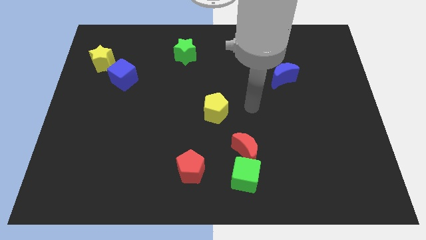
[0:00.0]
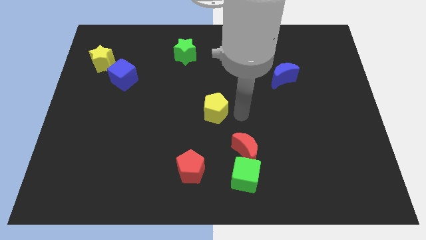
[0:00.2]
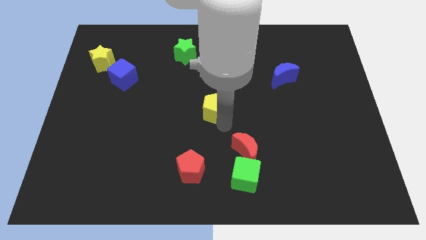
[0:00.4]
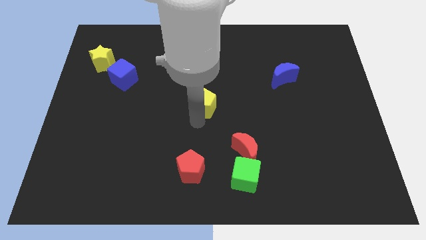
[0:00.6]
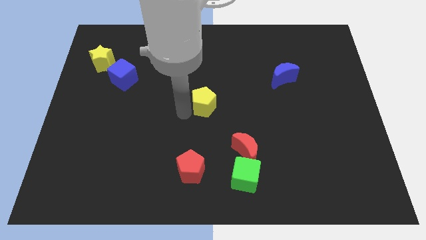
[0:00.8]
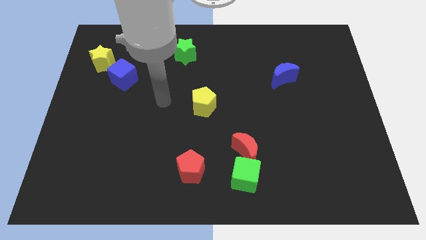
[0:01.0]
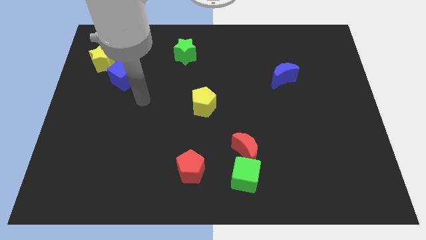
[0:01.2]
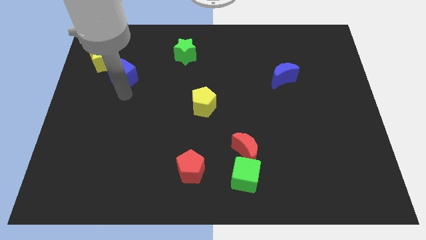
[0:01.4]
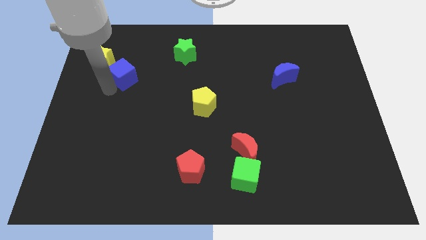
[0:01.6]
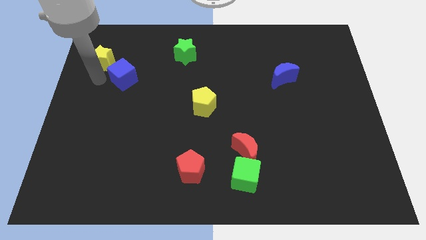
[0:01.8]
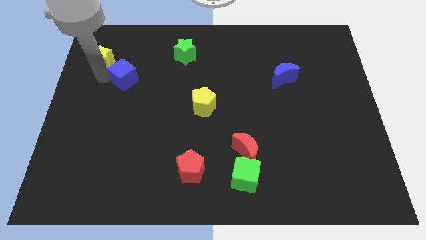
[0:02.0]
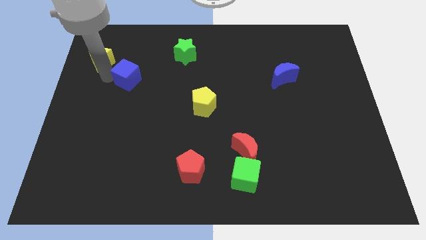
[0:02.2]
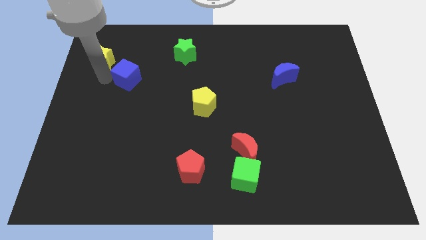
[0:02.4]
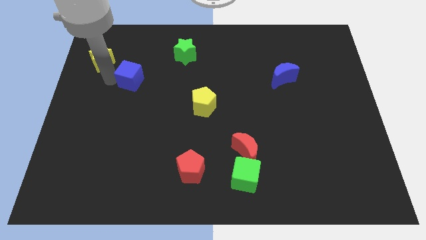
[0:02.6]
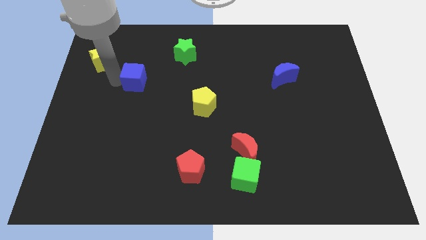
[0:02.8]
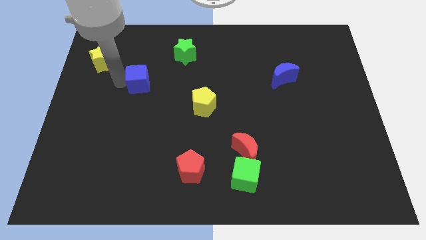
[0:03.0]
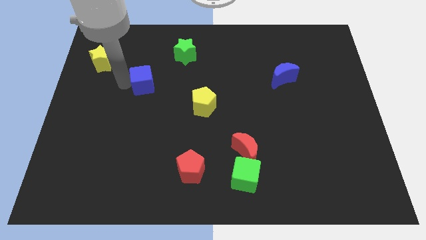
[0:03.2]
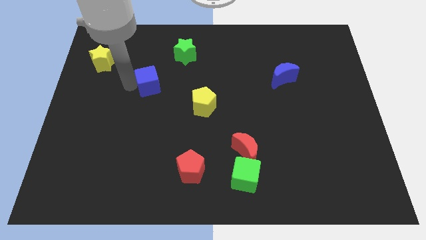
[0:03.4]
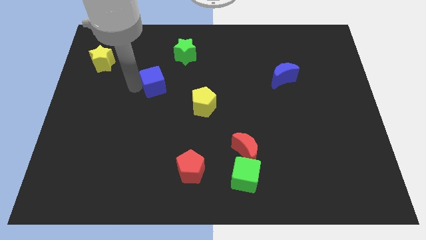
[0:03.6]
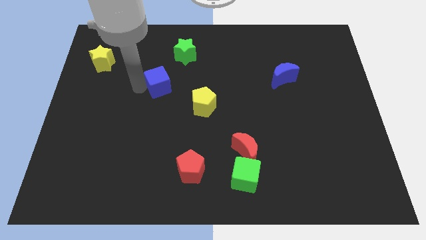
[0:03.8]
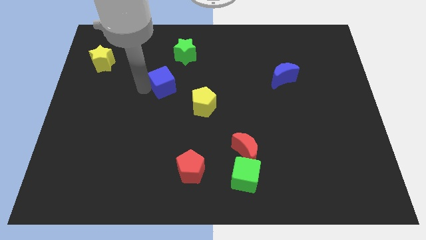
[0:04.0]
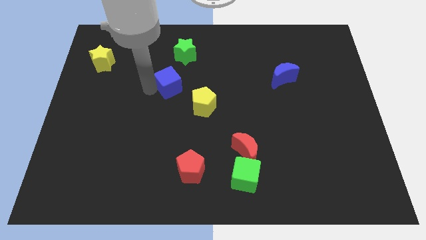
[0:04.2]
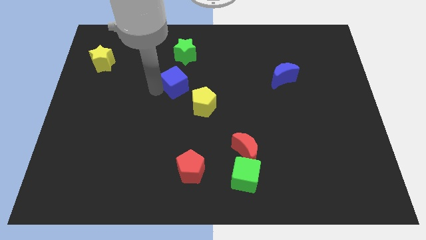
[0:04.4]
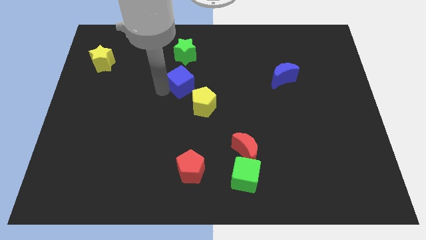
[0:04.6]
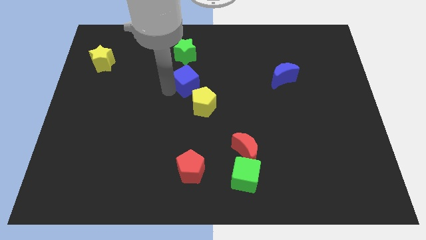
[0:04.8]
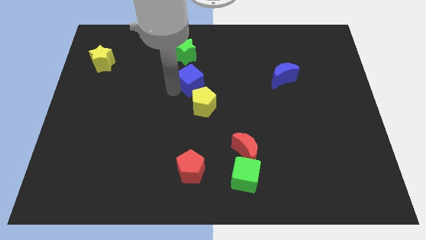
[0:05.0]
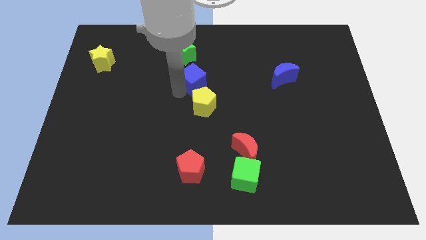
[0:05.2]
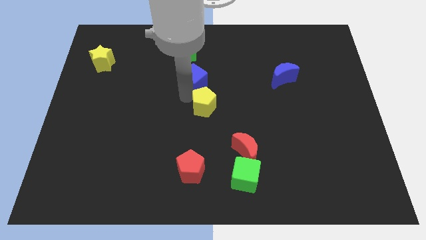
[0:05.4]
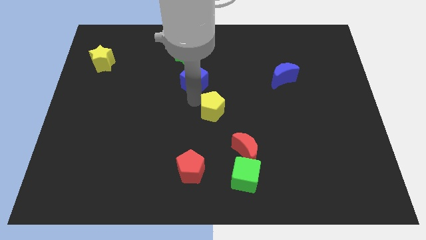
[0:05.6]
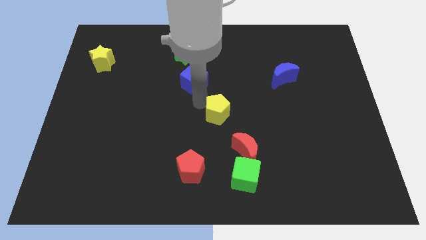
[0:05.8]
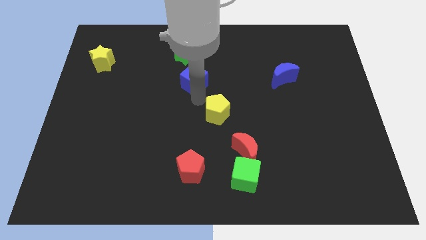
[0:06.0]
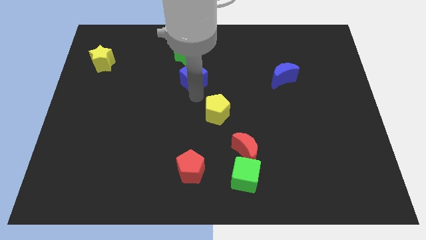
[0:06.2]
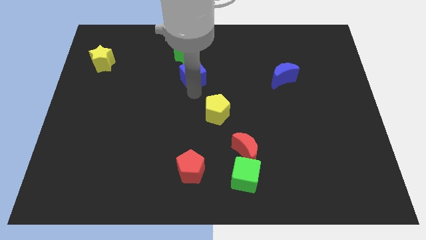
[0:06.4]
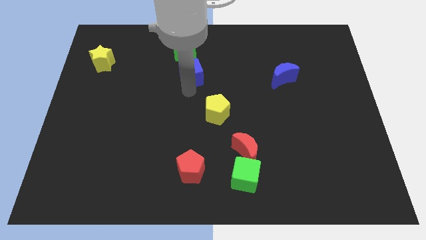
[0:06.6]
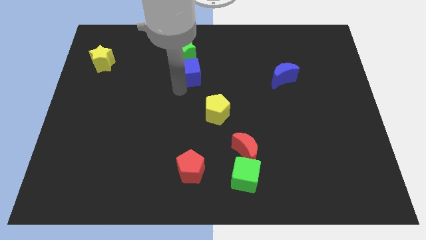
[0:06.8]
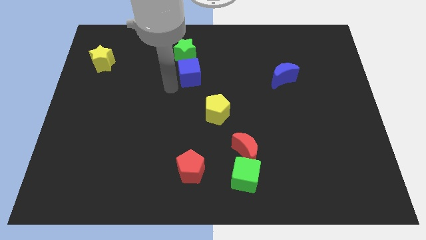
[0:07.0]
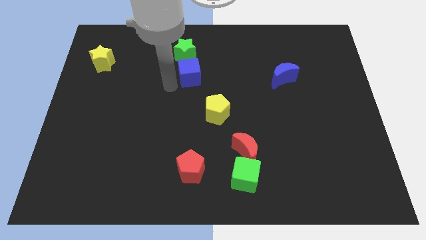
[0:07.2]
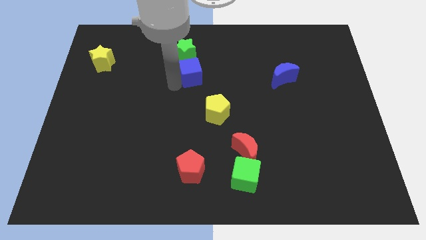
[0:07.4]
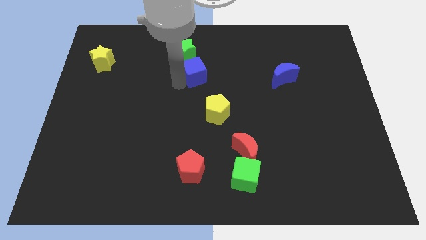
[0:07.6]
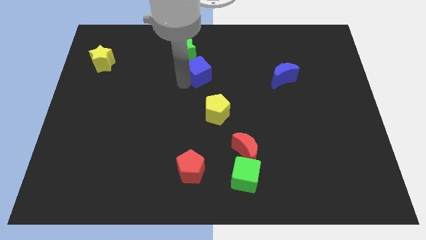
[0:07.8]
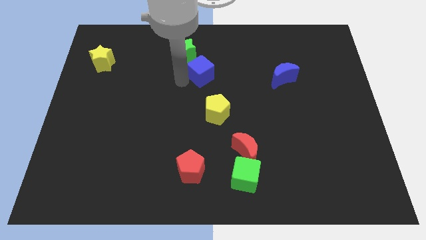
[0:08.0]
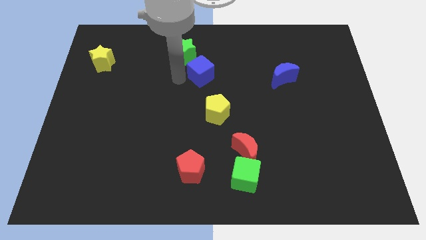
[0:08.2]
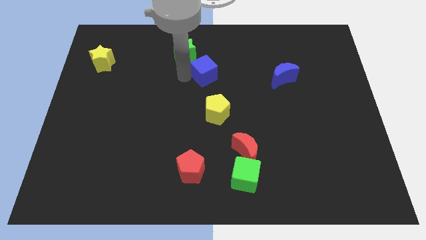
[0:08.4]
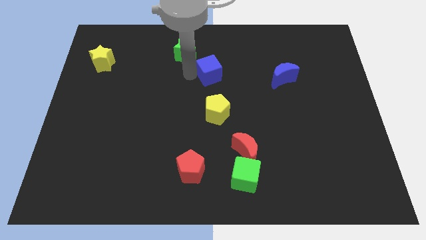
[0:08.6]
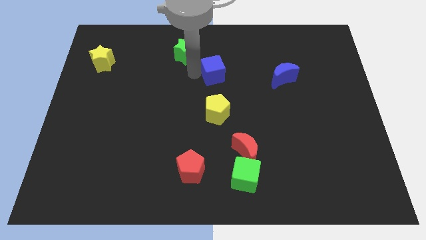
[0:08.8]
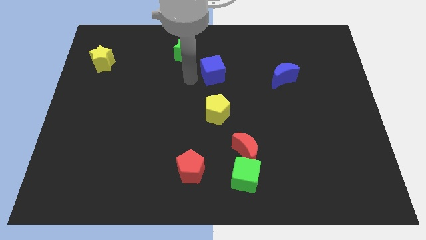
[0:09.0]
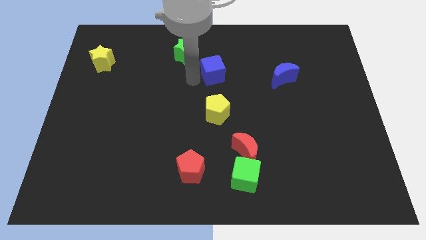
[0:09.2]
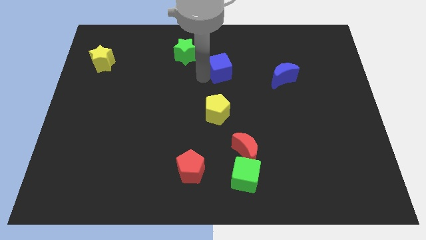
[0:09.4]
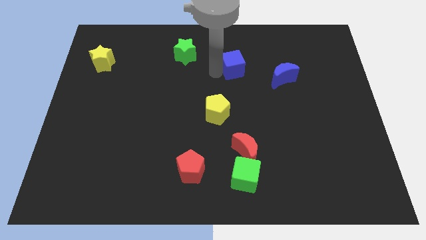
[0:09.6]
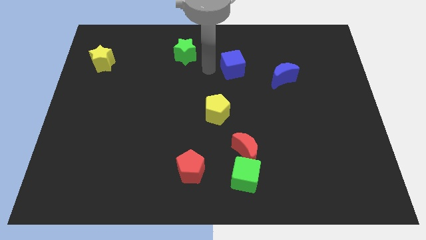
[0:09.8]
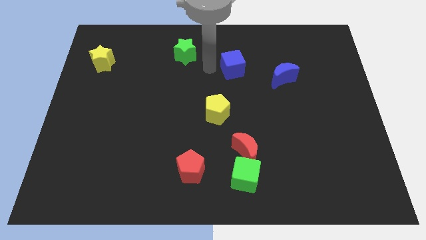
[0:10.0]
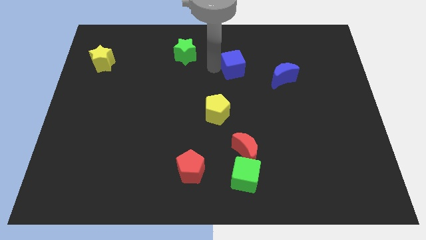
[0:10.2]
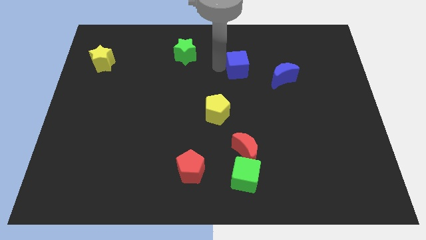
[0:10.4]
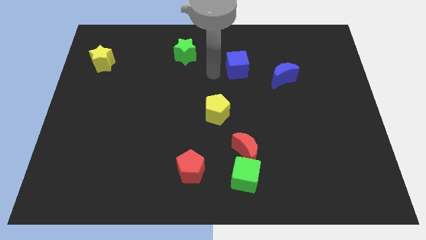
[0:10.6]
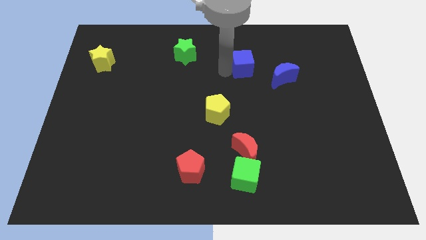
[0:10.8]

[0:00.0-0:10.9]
slide the blue cube diagonally up and to the left of the blue moon

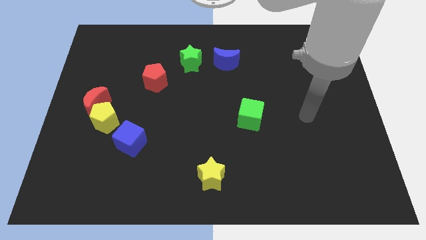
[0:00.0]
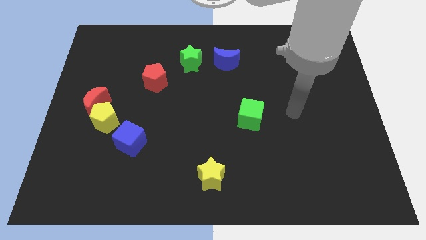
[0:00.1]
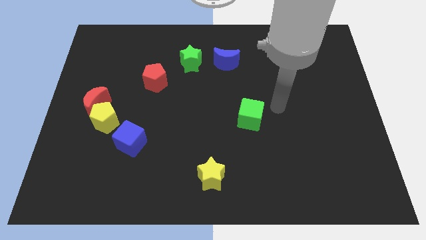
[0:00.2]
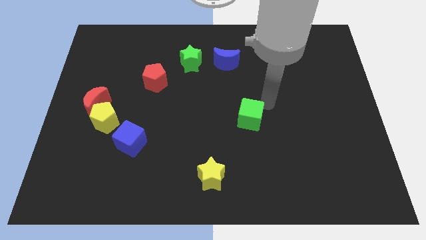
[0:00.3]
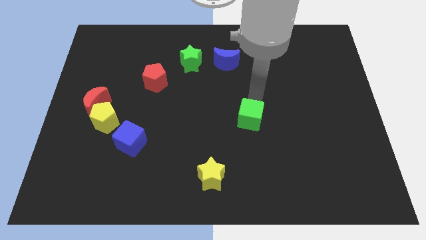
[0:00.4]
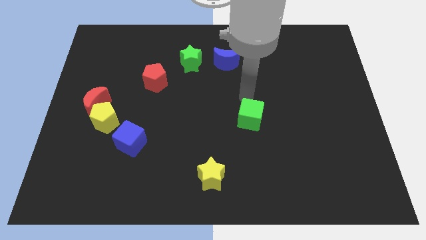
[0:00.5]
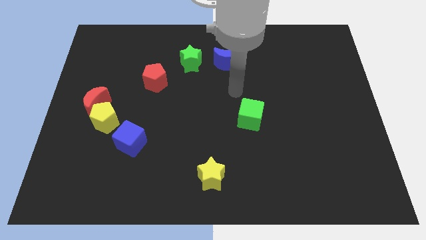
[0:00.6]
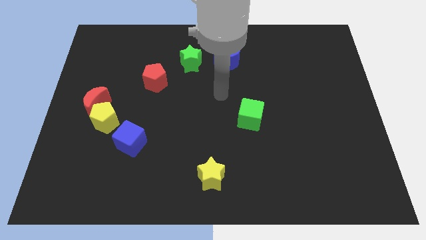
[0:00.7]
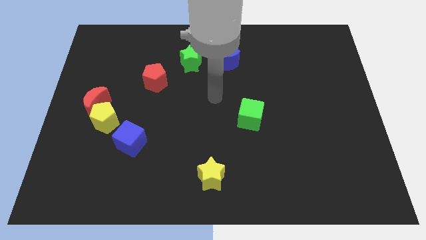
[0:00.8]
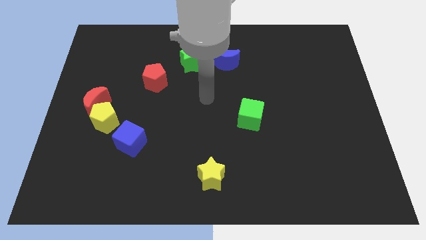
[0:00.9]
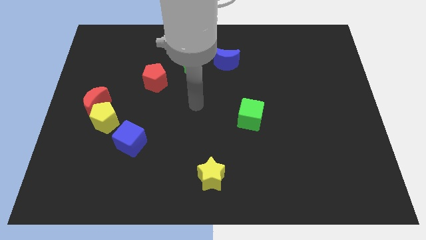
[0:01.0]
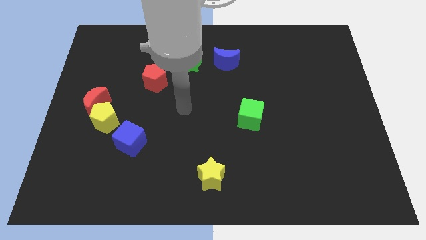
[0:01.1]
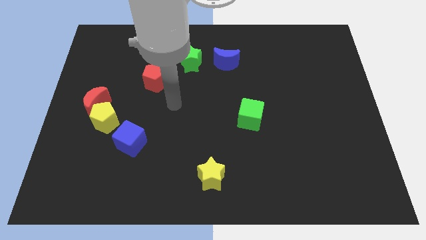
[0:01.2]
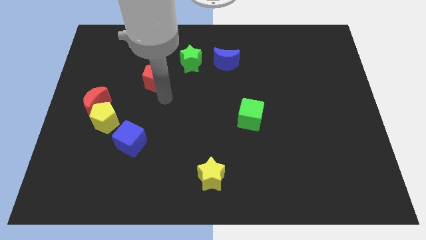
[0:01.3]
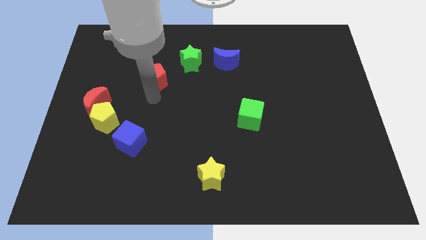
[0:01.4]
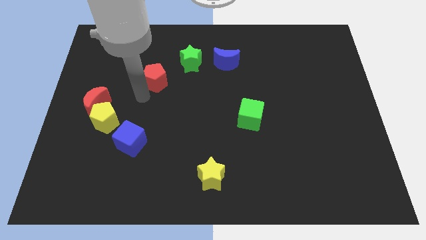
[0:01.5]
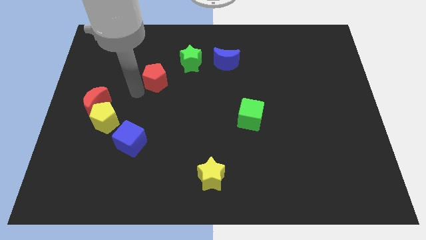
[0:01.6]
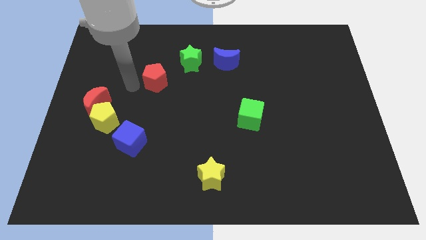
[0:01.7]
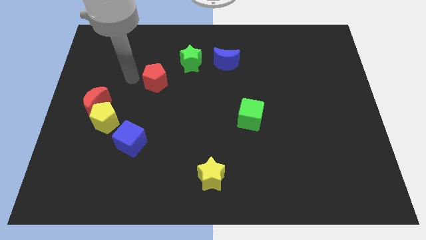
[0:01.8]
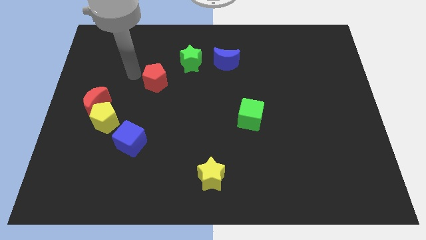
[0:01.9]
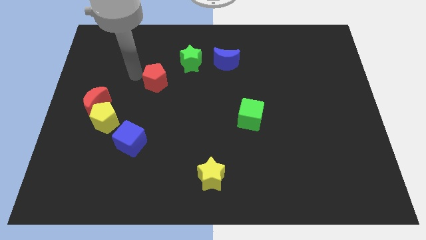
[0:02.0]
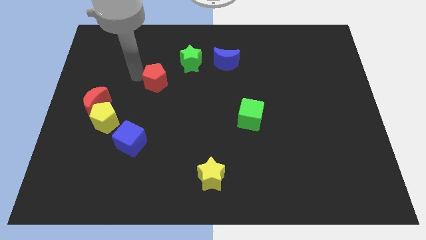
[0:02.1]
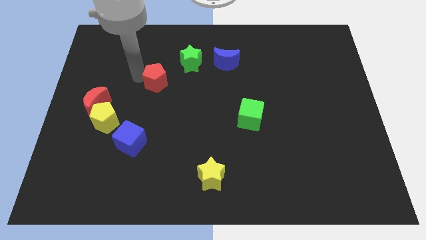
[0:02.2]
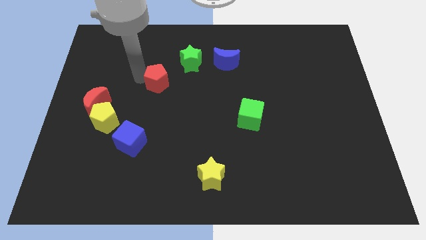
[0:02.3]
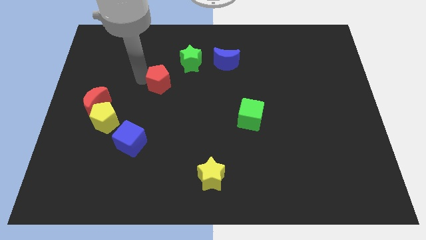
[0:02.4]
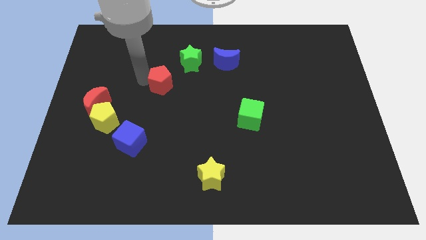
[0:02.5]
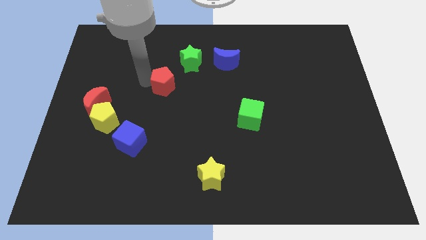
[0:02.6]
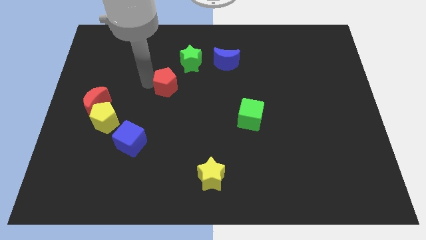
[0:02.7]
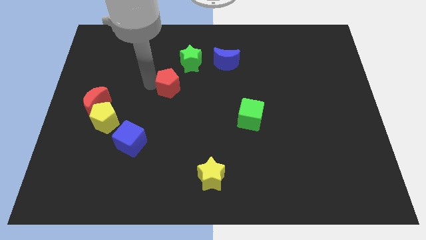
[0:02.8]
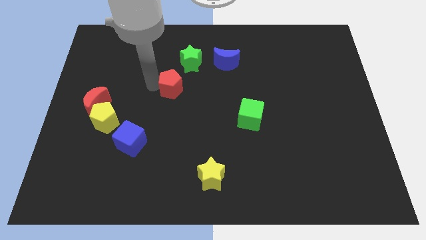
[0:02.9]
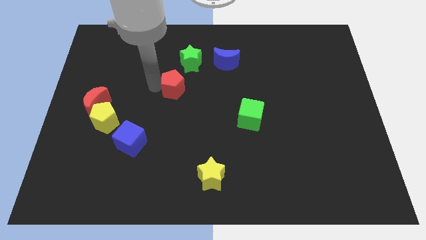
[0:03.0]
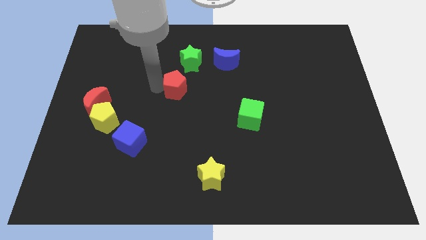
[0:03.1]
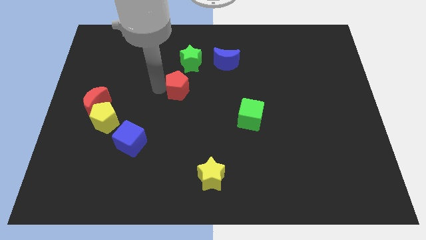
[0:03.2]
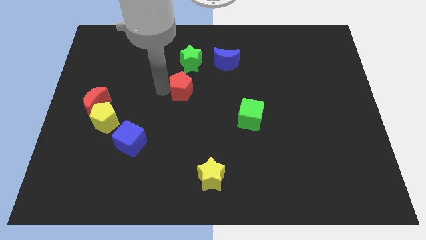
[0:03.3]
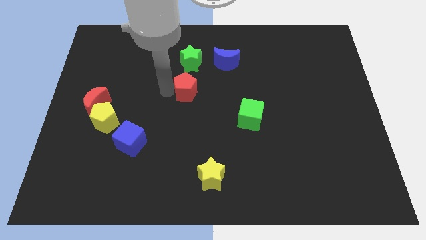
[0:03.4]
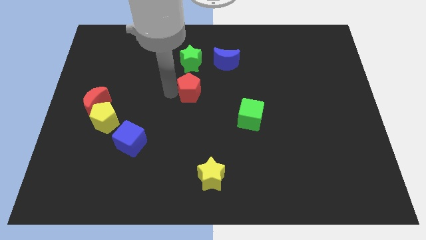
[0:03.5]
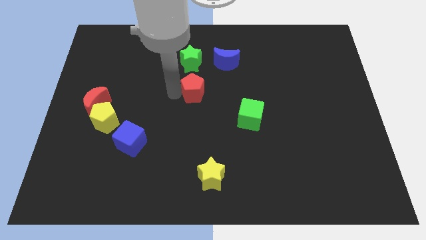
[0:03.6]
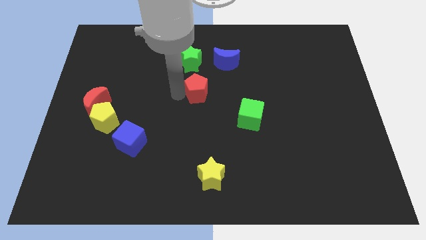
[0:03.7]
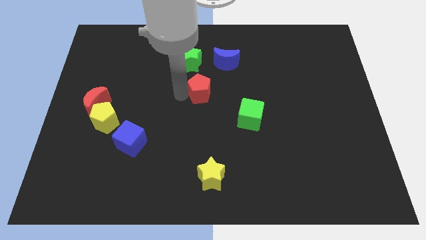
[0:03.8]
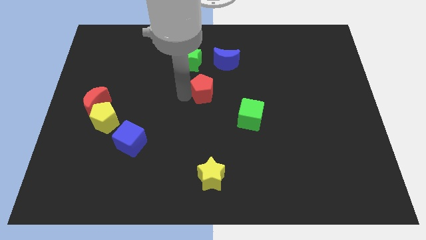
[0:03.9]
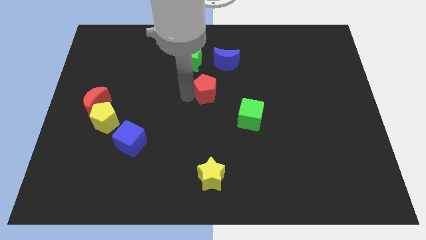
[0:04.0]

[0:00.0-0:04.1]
push the red pentagon below the blue moon
